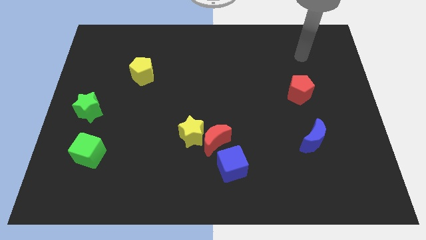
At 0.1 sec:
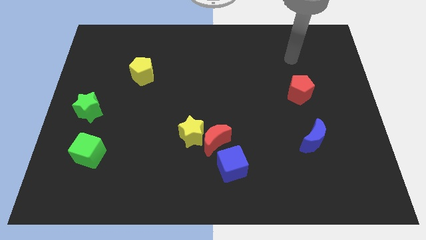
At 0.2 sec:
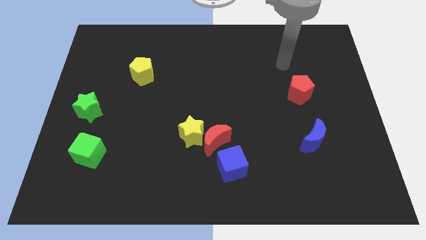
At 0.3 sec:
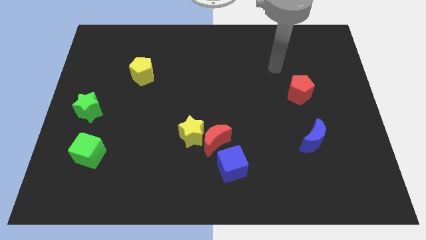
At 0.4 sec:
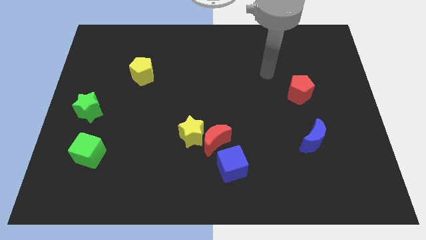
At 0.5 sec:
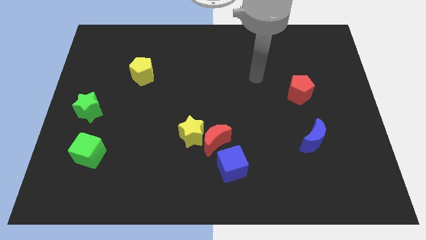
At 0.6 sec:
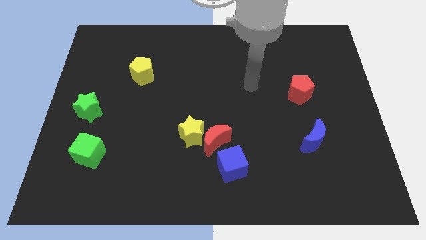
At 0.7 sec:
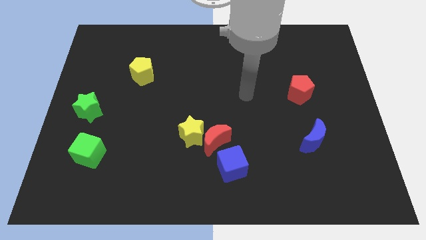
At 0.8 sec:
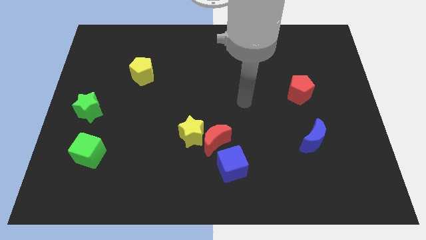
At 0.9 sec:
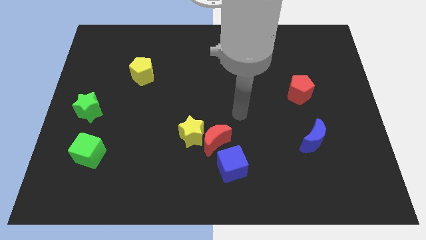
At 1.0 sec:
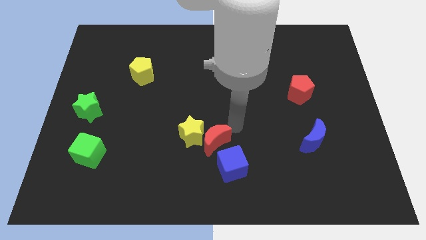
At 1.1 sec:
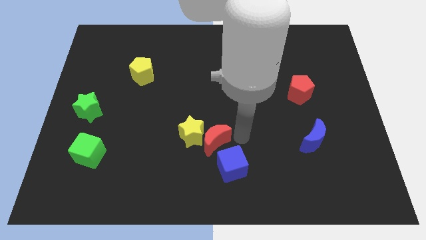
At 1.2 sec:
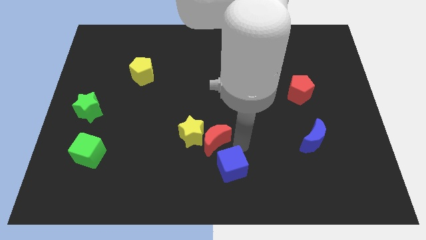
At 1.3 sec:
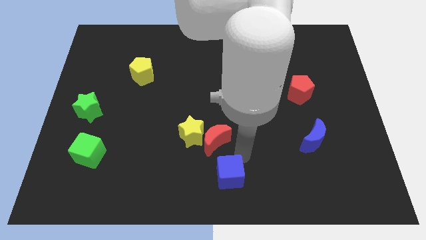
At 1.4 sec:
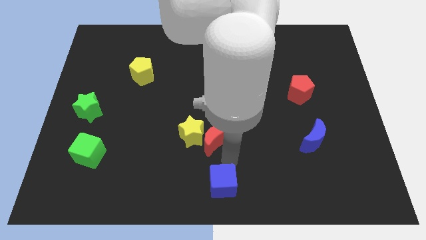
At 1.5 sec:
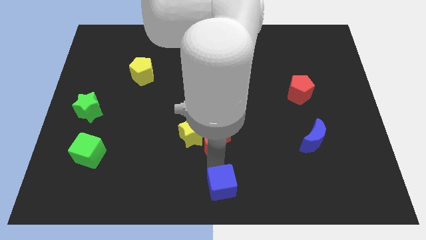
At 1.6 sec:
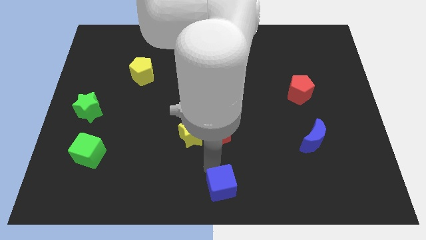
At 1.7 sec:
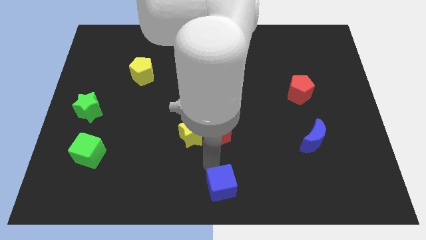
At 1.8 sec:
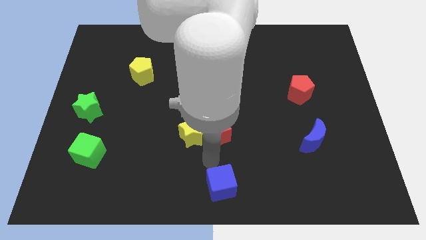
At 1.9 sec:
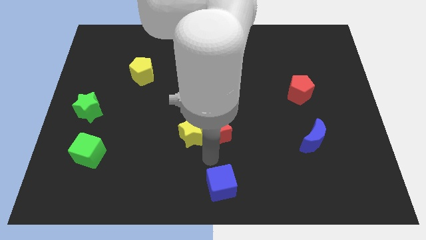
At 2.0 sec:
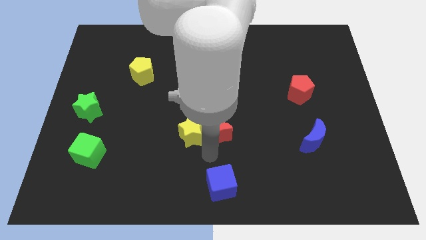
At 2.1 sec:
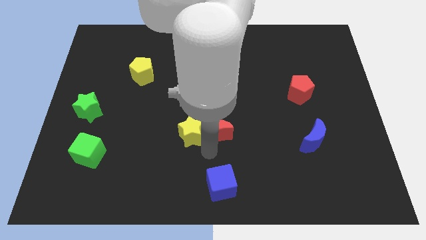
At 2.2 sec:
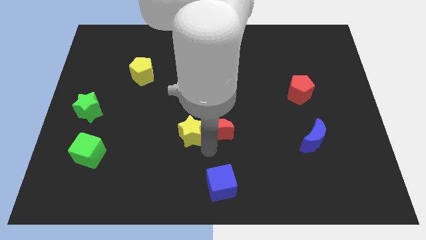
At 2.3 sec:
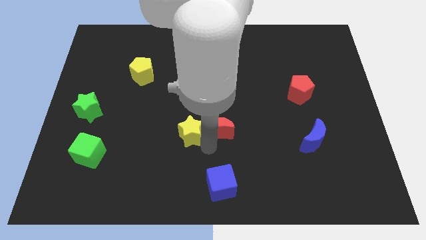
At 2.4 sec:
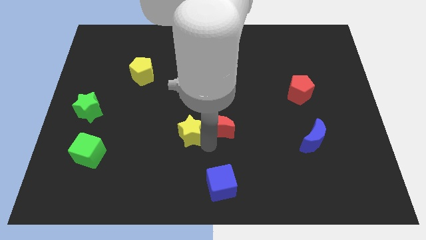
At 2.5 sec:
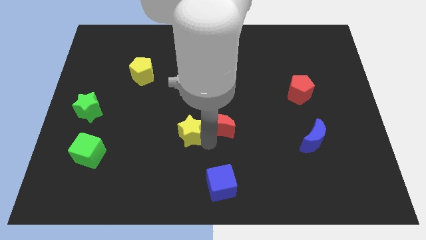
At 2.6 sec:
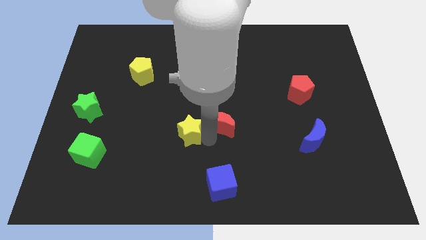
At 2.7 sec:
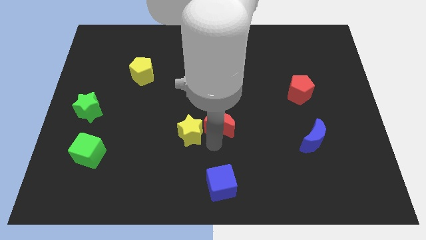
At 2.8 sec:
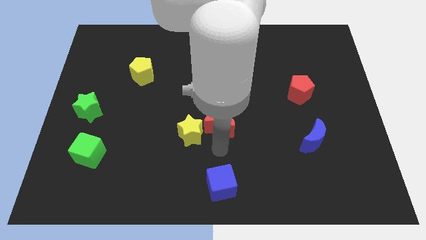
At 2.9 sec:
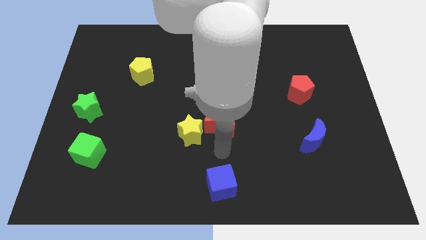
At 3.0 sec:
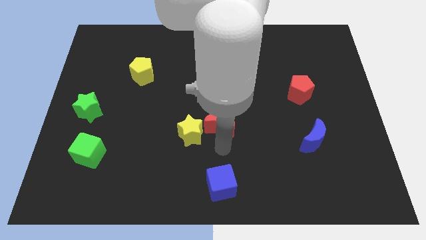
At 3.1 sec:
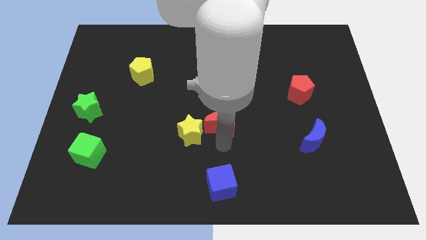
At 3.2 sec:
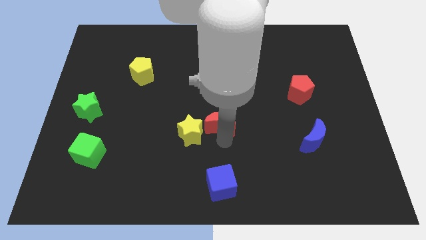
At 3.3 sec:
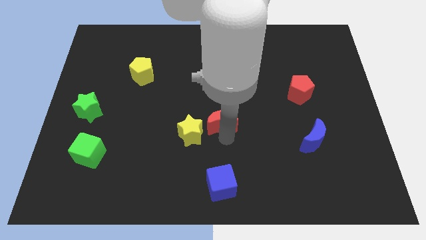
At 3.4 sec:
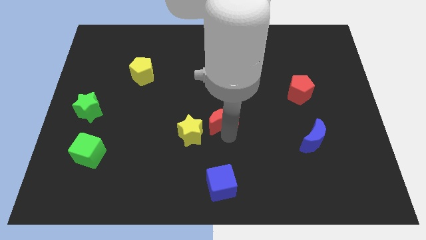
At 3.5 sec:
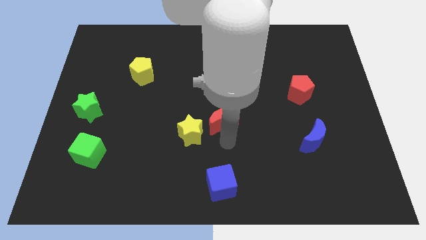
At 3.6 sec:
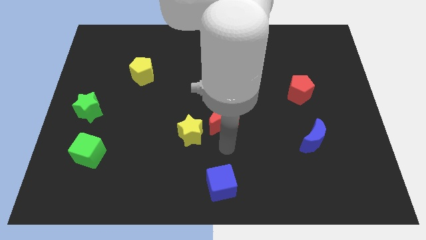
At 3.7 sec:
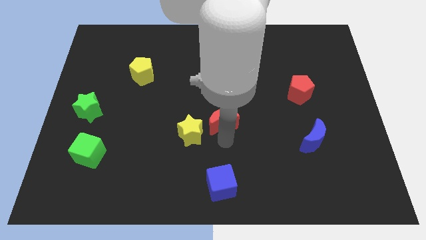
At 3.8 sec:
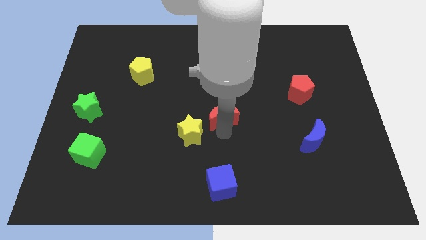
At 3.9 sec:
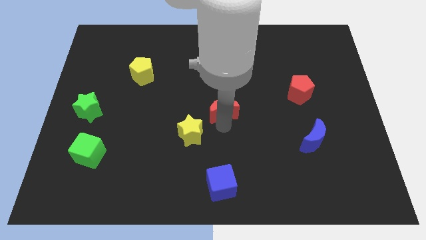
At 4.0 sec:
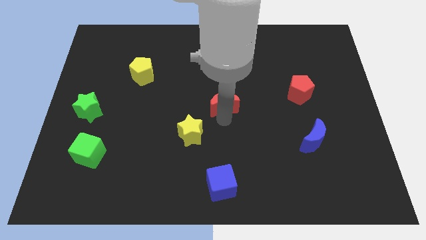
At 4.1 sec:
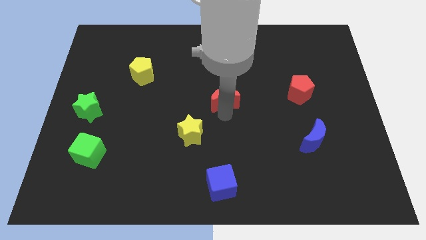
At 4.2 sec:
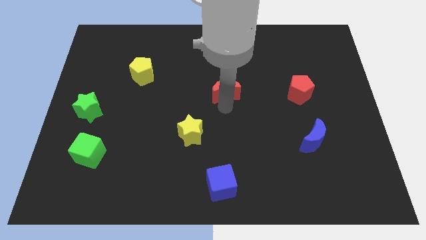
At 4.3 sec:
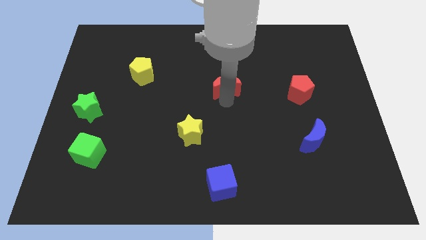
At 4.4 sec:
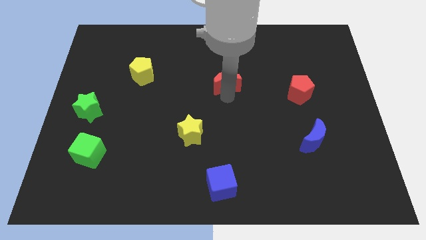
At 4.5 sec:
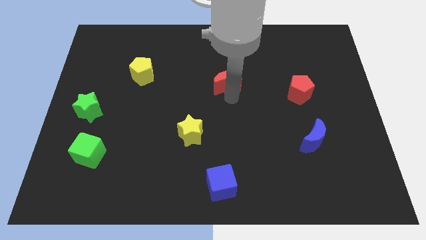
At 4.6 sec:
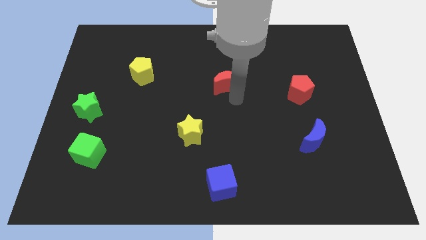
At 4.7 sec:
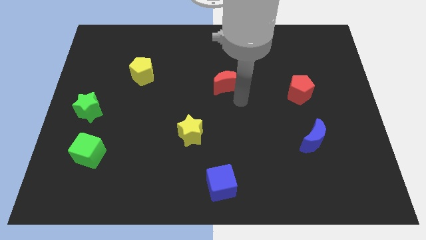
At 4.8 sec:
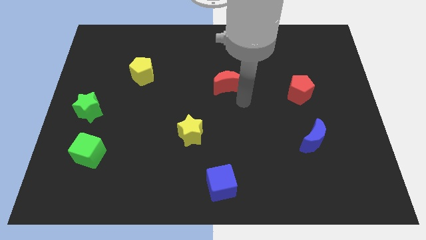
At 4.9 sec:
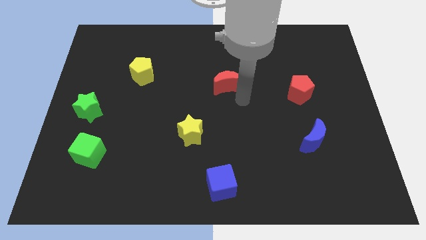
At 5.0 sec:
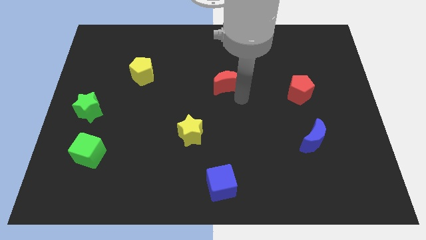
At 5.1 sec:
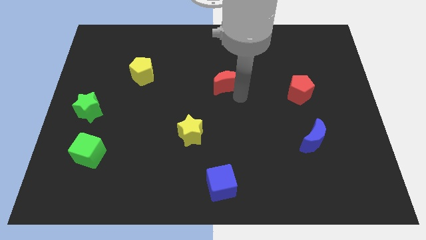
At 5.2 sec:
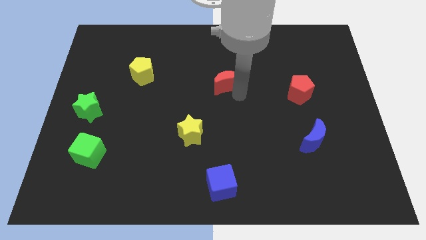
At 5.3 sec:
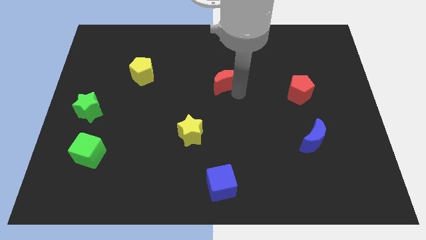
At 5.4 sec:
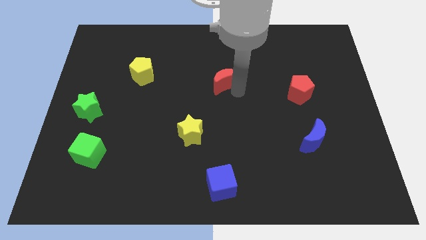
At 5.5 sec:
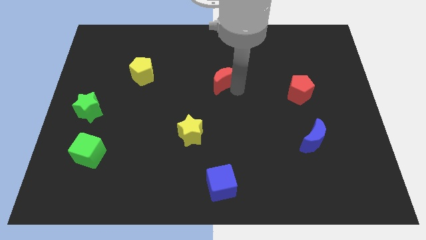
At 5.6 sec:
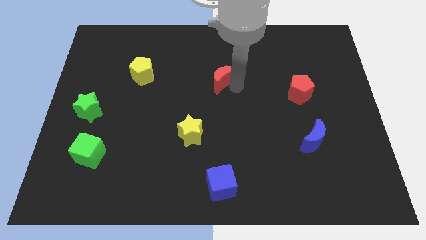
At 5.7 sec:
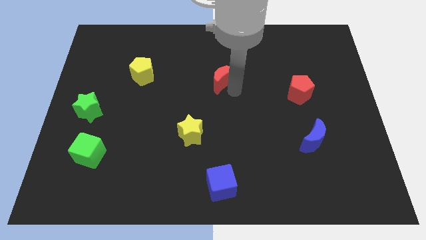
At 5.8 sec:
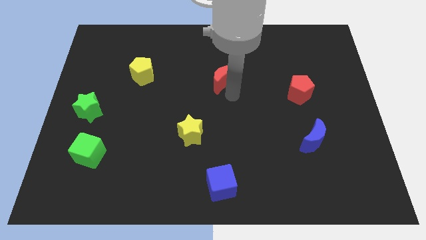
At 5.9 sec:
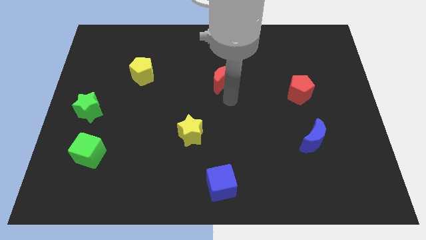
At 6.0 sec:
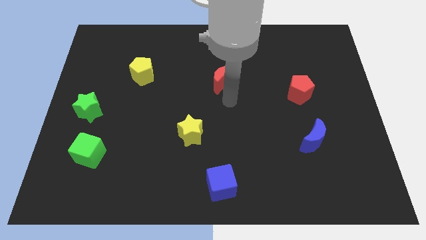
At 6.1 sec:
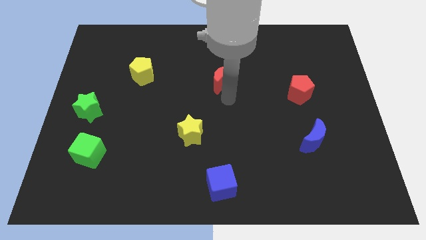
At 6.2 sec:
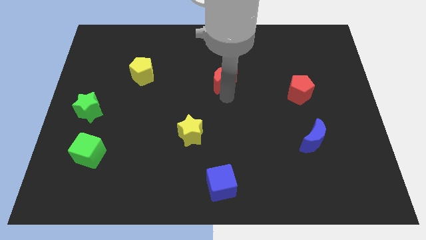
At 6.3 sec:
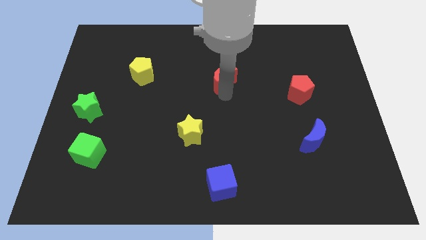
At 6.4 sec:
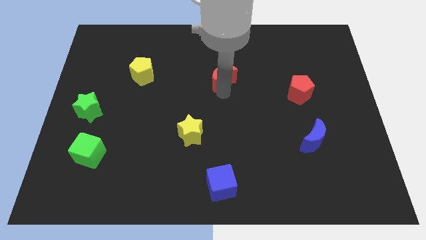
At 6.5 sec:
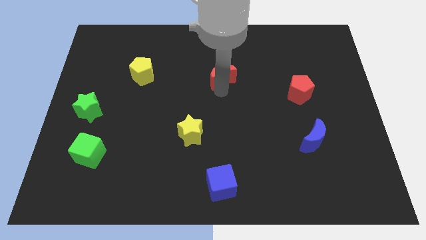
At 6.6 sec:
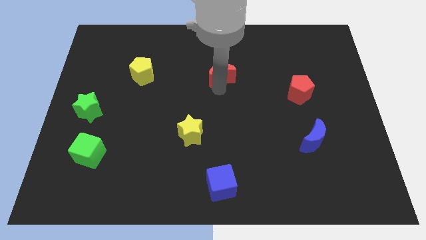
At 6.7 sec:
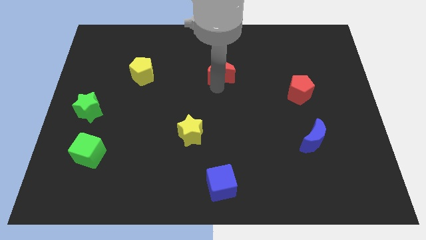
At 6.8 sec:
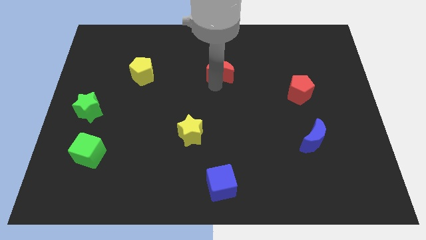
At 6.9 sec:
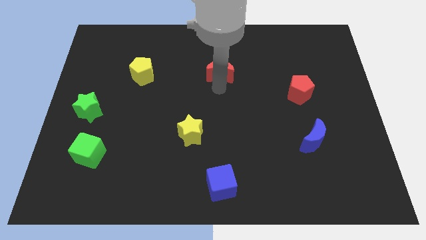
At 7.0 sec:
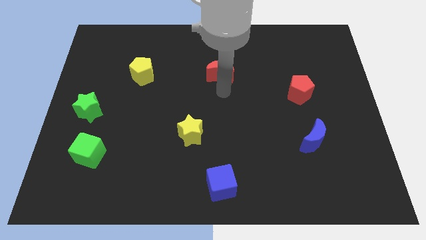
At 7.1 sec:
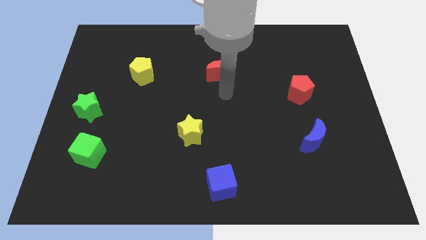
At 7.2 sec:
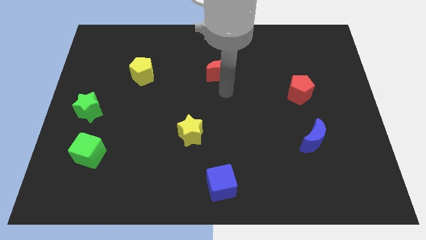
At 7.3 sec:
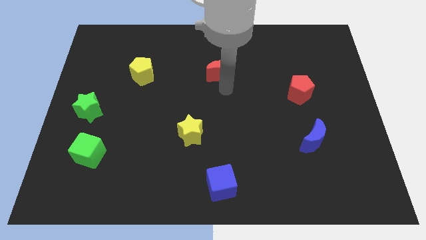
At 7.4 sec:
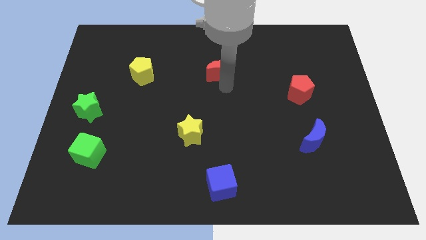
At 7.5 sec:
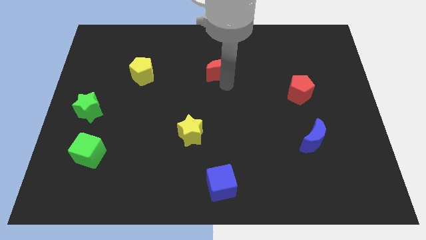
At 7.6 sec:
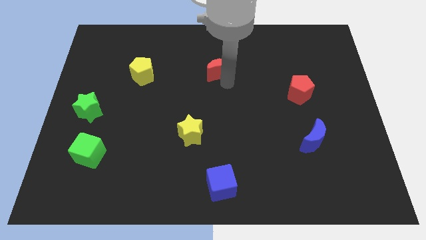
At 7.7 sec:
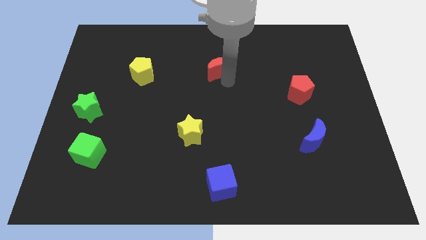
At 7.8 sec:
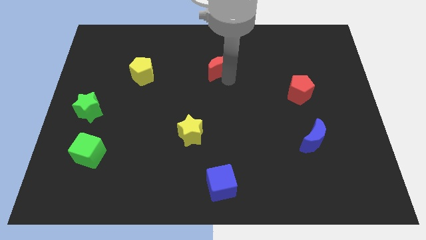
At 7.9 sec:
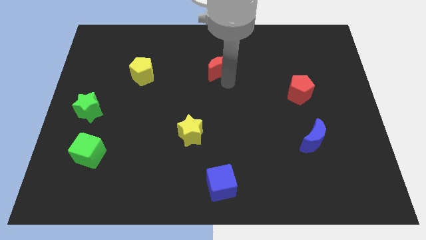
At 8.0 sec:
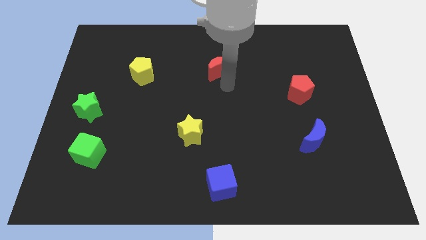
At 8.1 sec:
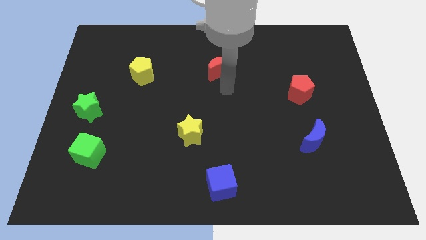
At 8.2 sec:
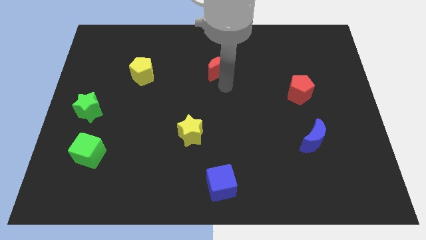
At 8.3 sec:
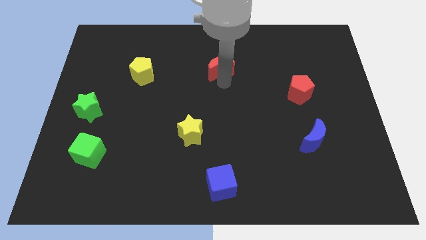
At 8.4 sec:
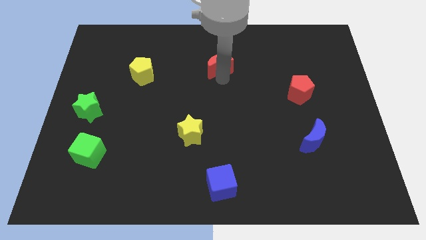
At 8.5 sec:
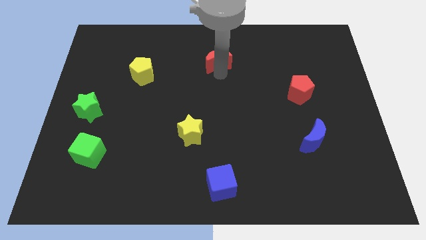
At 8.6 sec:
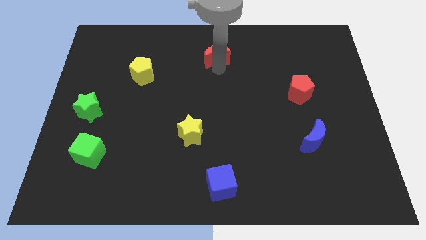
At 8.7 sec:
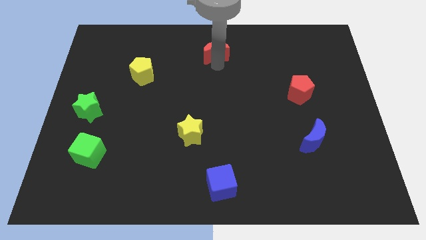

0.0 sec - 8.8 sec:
push the red moon to the top
